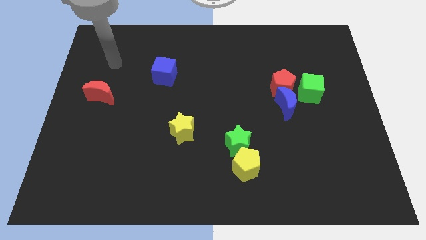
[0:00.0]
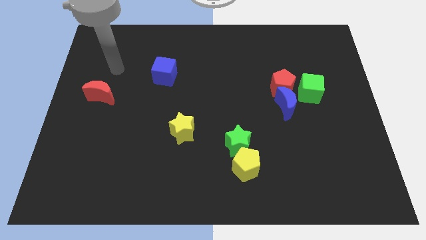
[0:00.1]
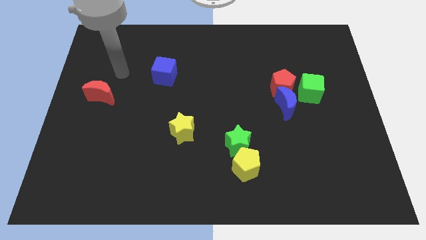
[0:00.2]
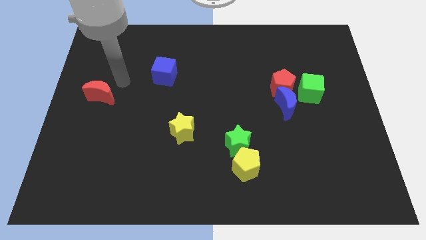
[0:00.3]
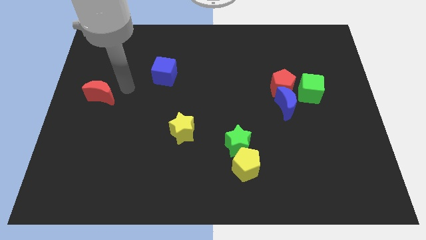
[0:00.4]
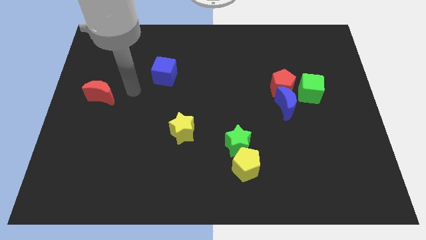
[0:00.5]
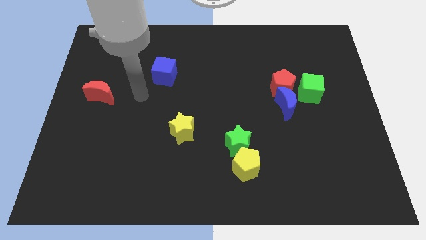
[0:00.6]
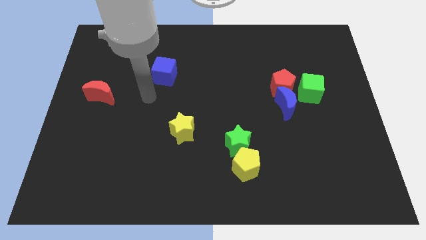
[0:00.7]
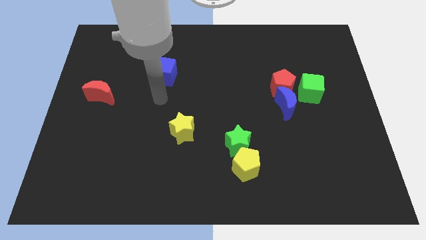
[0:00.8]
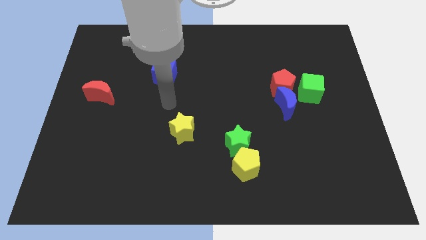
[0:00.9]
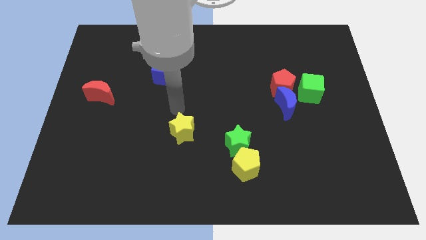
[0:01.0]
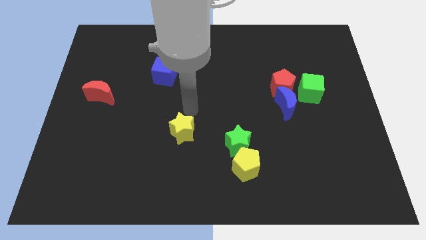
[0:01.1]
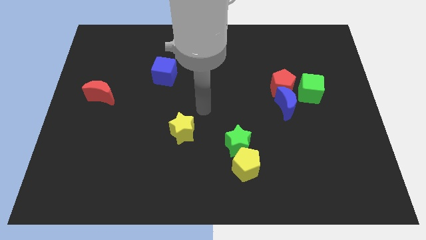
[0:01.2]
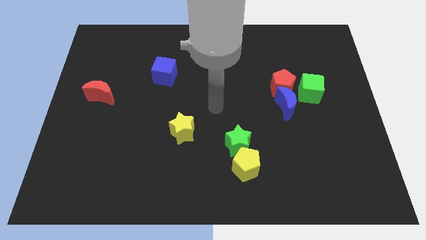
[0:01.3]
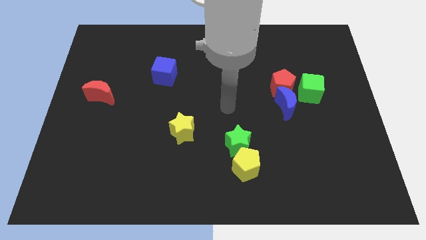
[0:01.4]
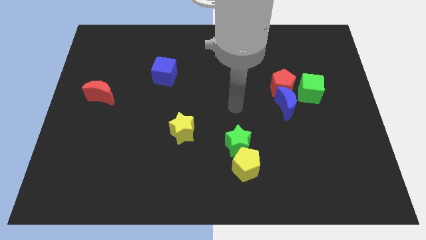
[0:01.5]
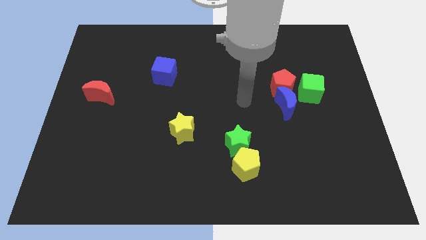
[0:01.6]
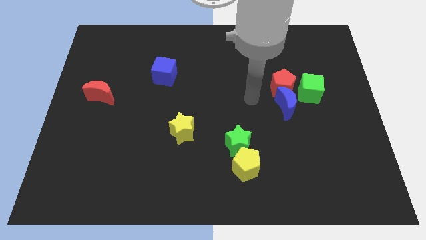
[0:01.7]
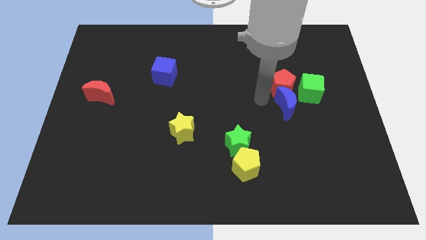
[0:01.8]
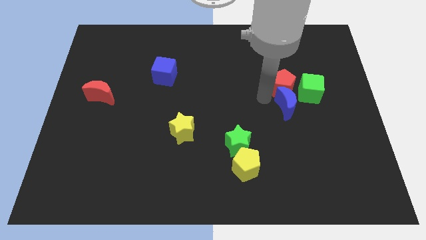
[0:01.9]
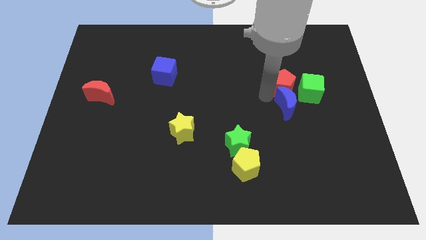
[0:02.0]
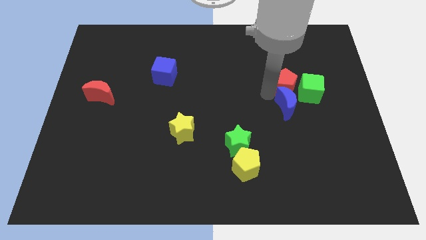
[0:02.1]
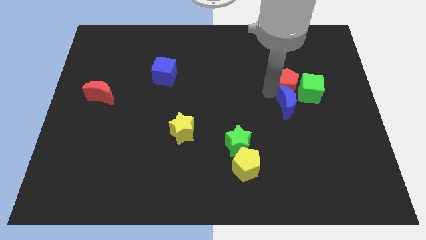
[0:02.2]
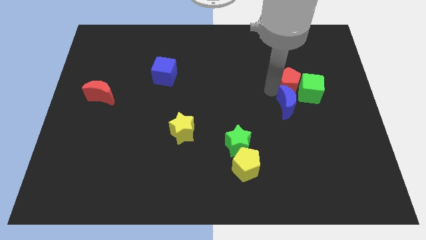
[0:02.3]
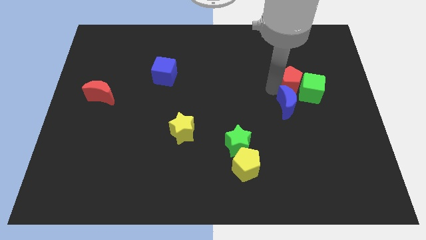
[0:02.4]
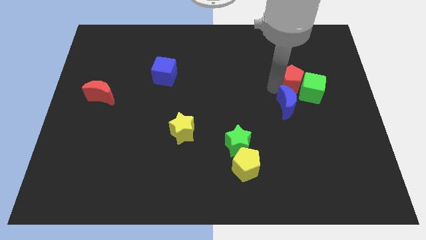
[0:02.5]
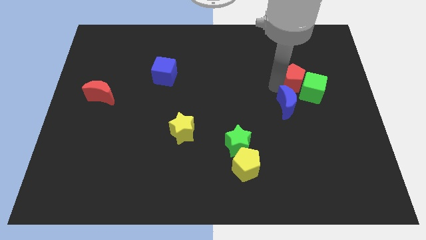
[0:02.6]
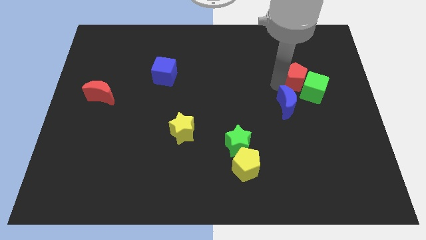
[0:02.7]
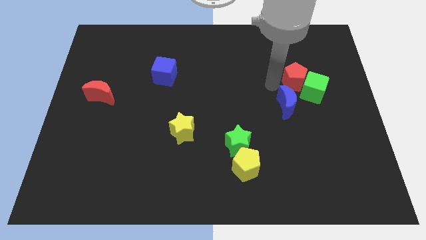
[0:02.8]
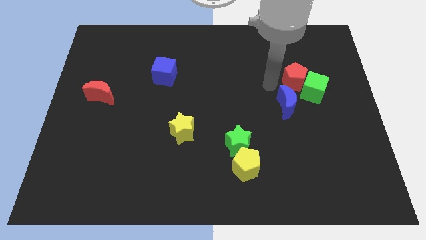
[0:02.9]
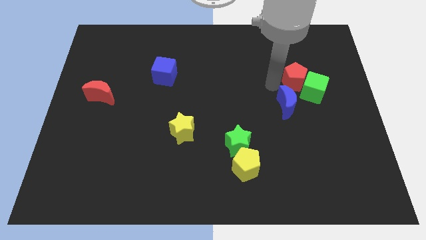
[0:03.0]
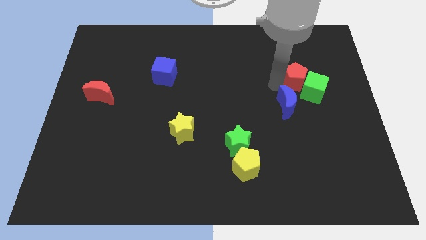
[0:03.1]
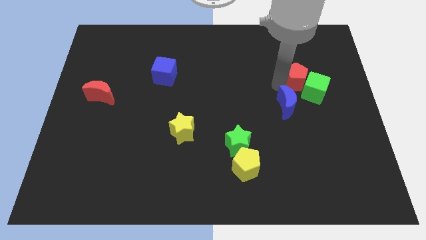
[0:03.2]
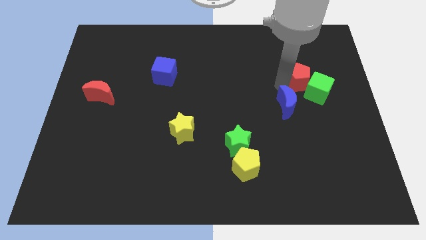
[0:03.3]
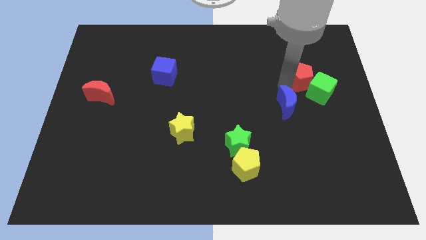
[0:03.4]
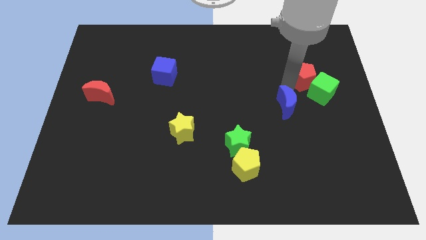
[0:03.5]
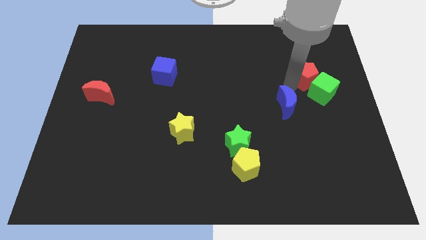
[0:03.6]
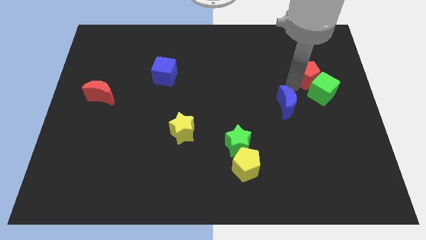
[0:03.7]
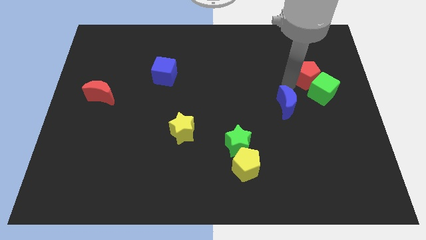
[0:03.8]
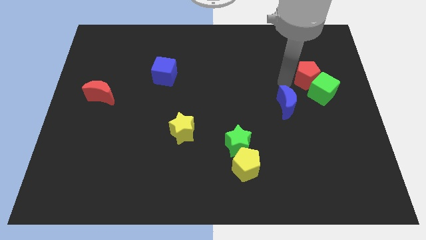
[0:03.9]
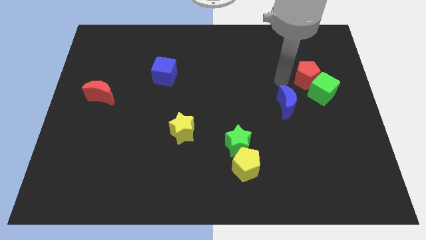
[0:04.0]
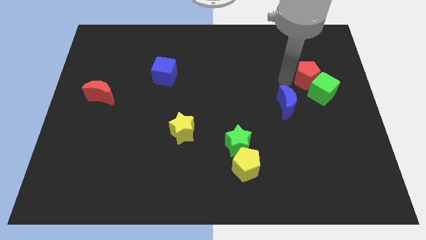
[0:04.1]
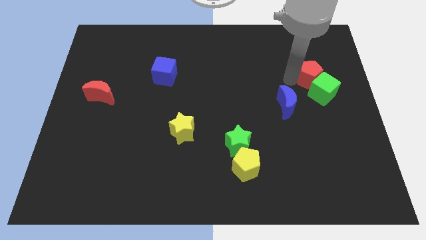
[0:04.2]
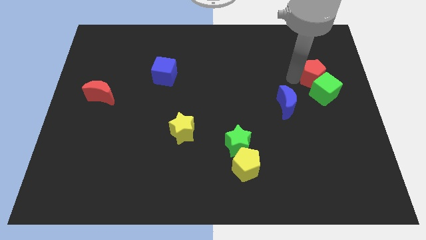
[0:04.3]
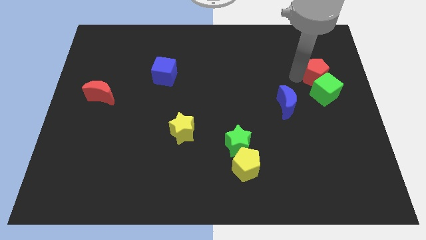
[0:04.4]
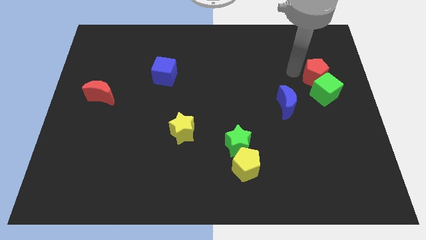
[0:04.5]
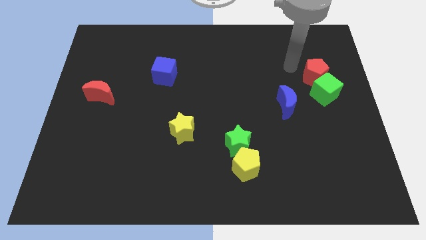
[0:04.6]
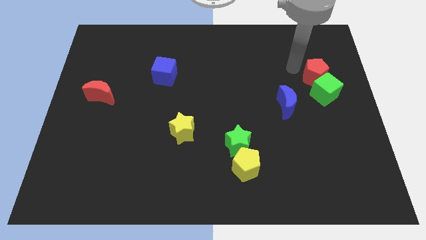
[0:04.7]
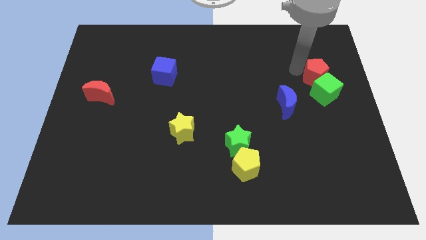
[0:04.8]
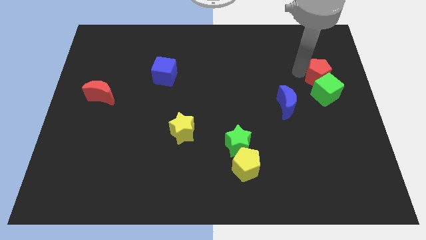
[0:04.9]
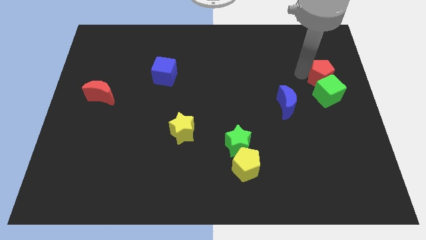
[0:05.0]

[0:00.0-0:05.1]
push the red pentagon to the right side

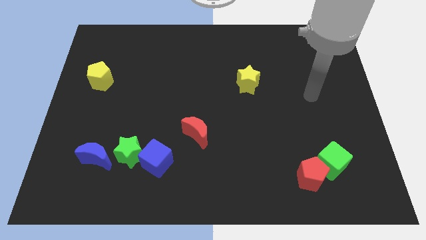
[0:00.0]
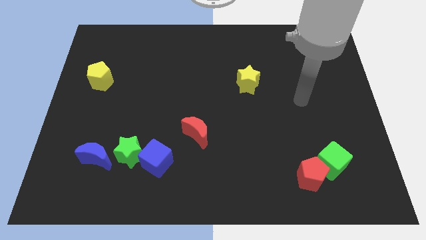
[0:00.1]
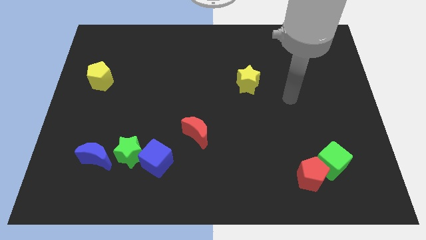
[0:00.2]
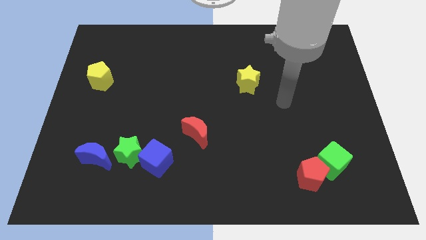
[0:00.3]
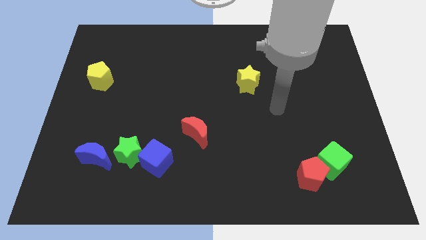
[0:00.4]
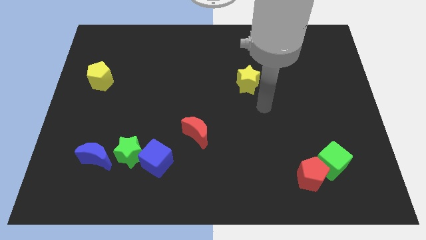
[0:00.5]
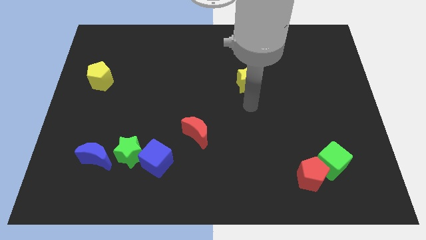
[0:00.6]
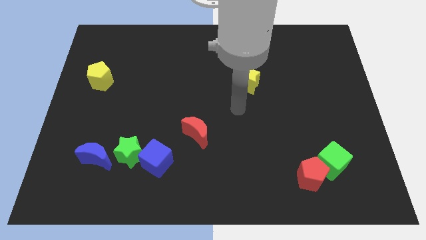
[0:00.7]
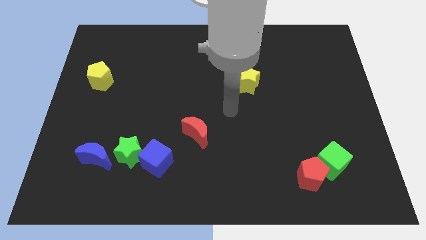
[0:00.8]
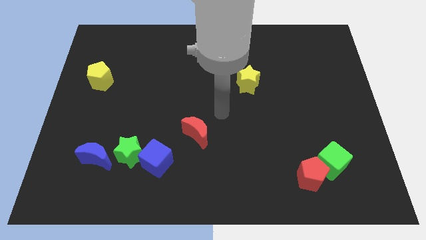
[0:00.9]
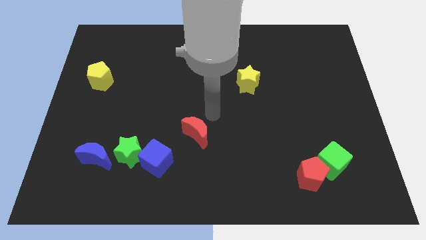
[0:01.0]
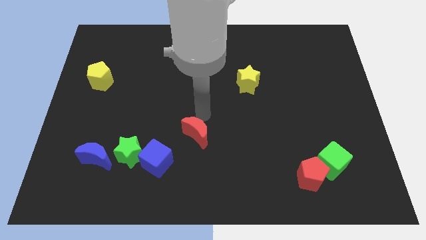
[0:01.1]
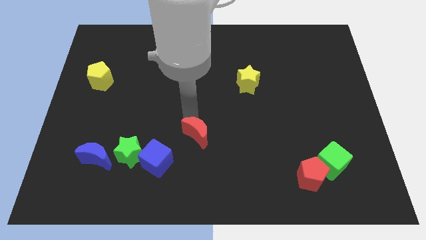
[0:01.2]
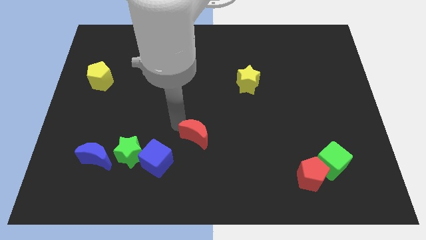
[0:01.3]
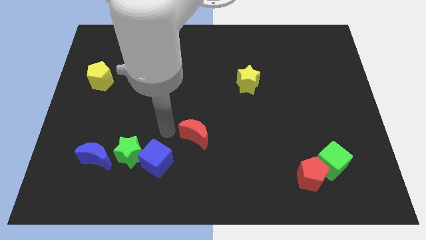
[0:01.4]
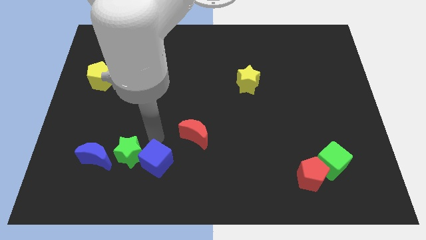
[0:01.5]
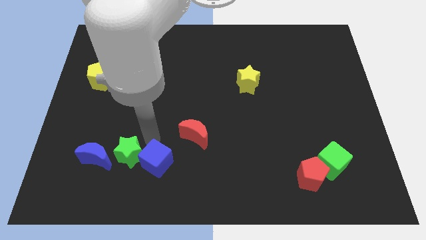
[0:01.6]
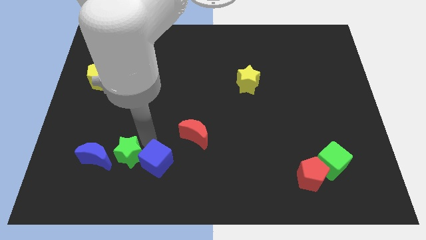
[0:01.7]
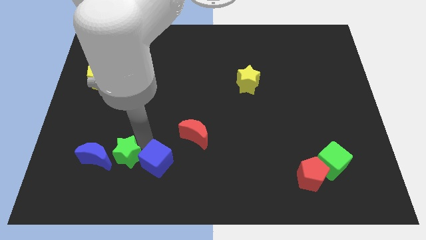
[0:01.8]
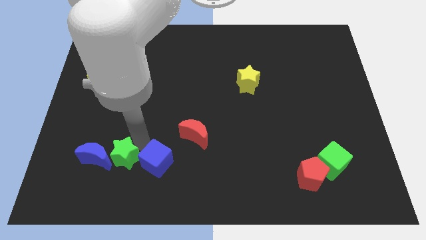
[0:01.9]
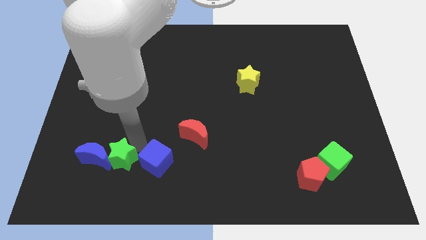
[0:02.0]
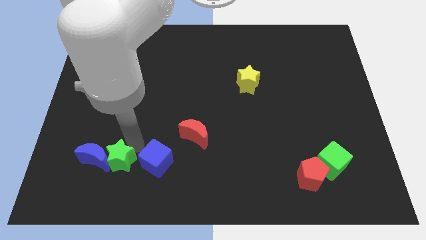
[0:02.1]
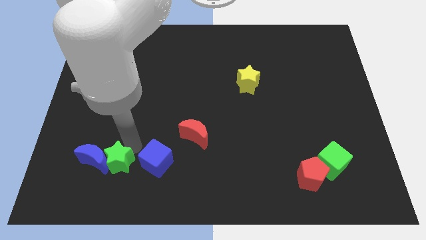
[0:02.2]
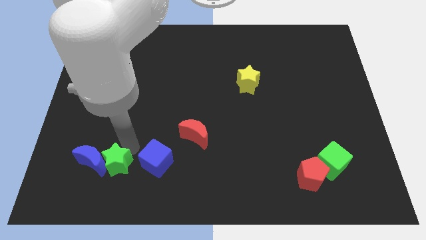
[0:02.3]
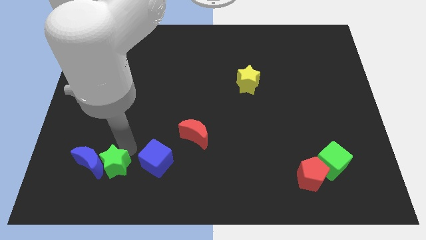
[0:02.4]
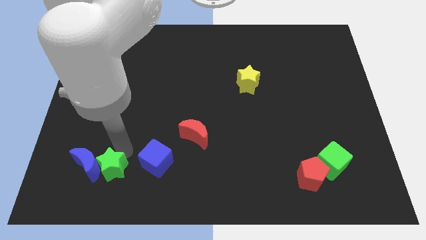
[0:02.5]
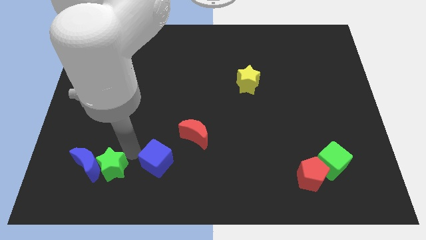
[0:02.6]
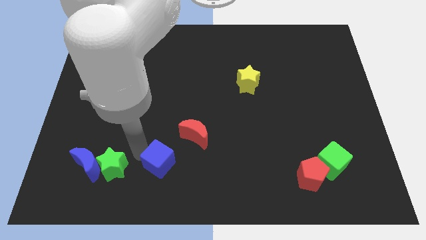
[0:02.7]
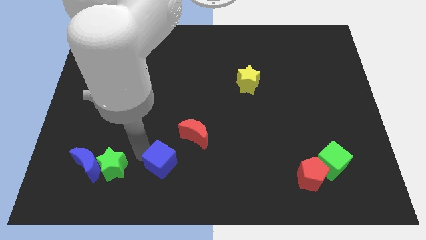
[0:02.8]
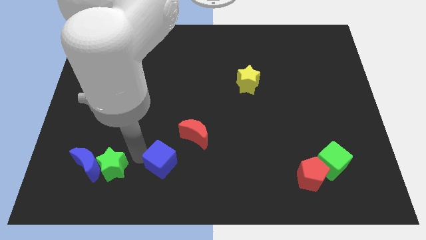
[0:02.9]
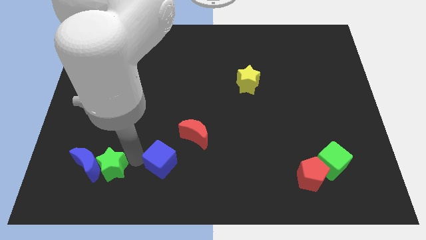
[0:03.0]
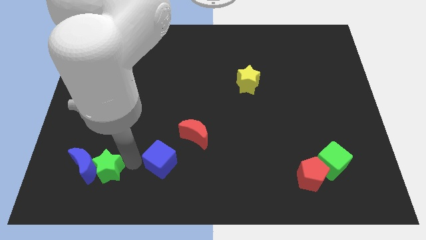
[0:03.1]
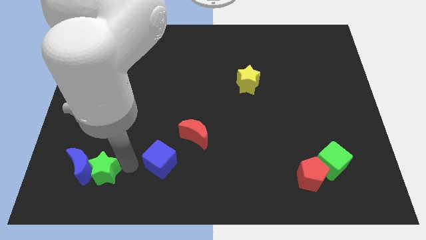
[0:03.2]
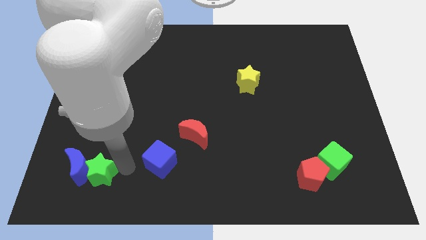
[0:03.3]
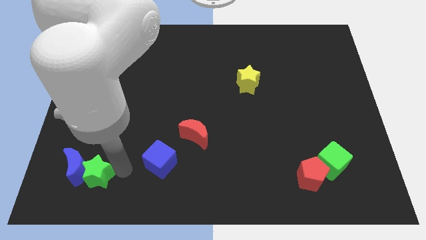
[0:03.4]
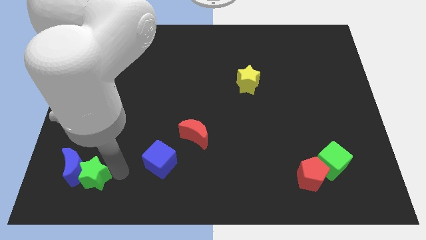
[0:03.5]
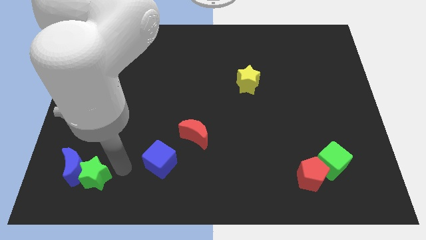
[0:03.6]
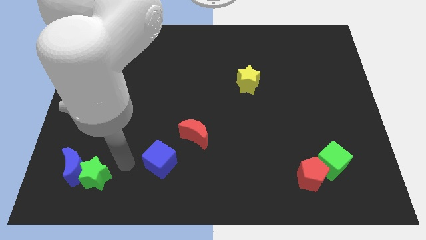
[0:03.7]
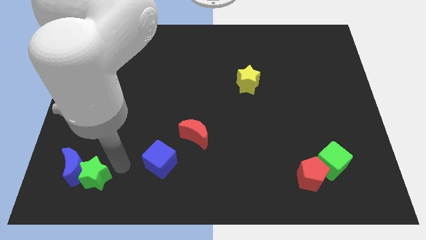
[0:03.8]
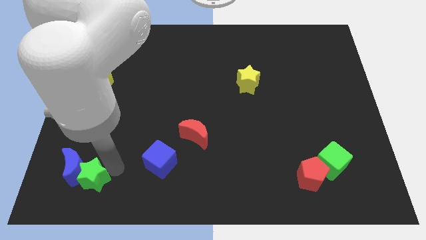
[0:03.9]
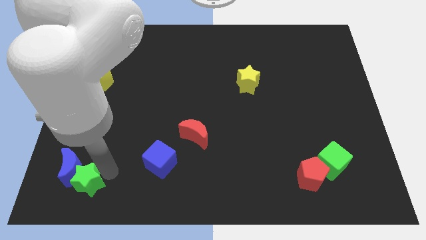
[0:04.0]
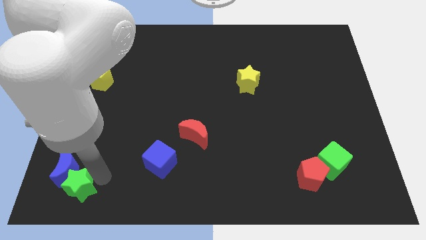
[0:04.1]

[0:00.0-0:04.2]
put the green star to the bottom left
